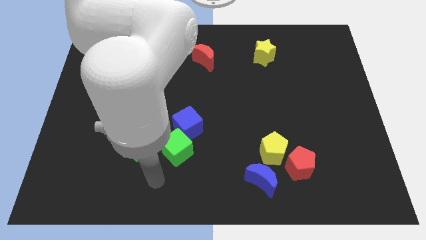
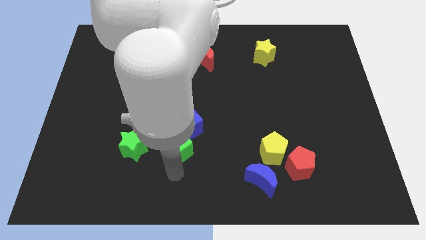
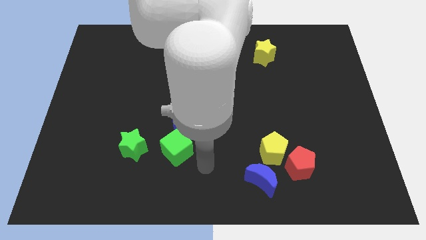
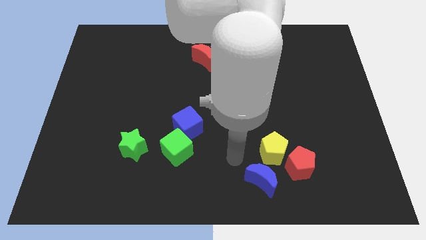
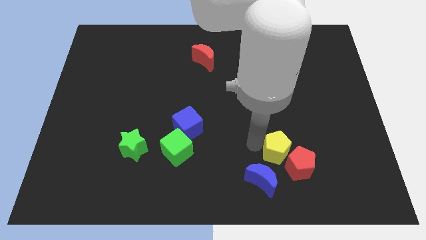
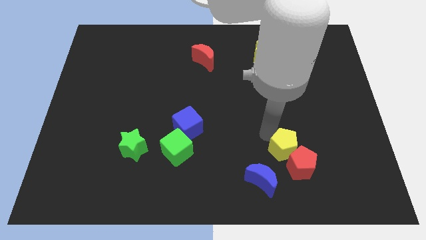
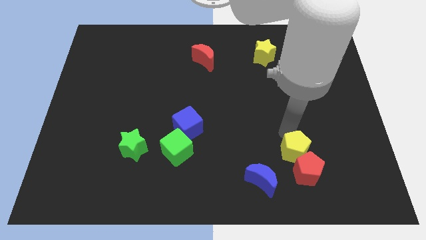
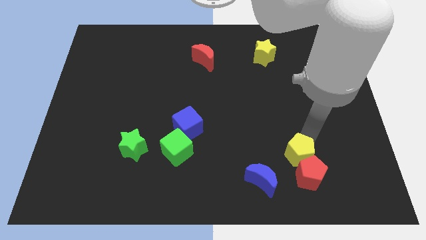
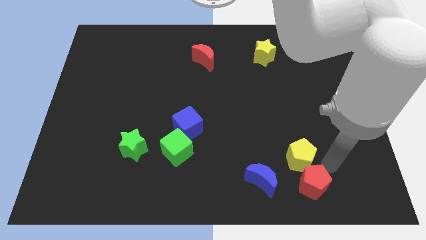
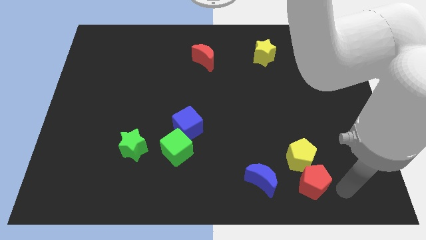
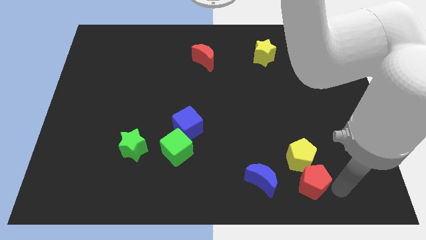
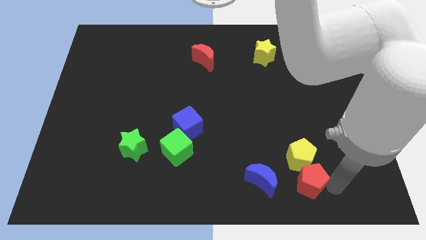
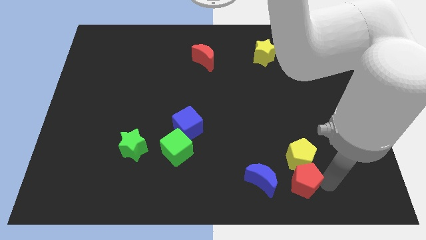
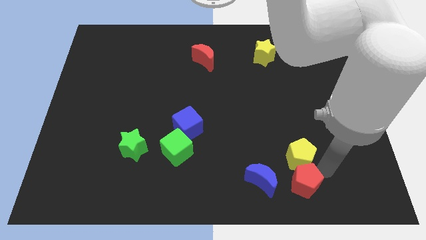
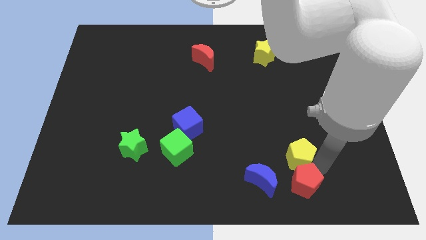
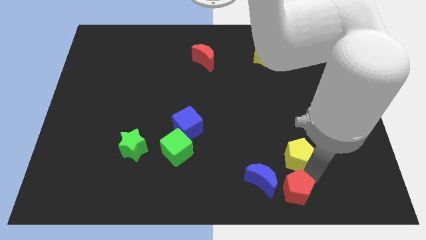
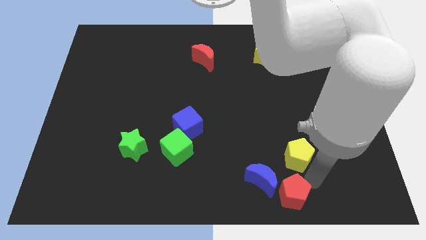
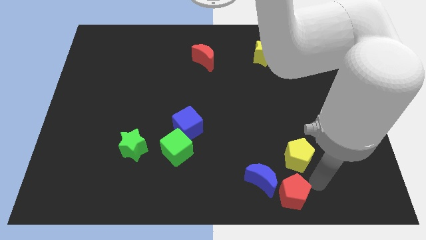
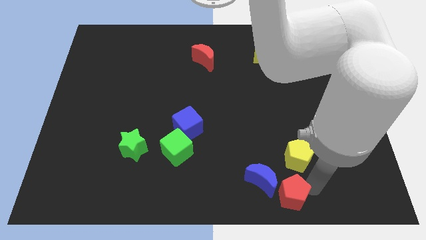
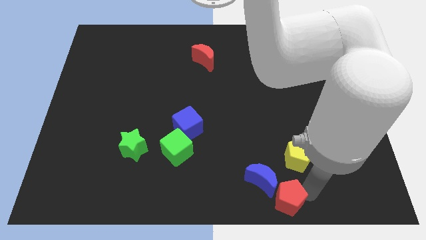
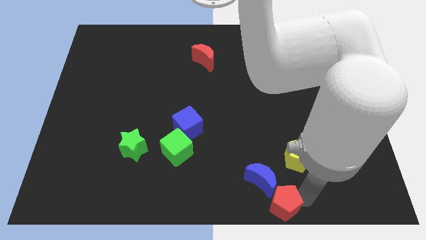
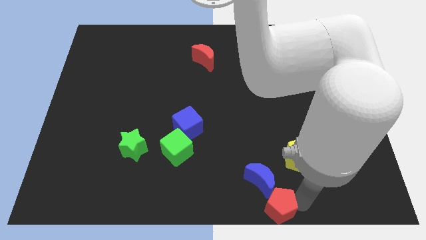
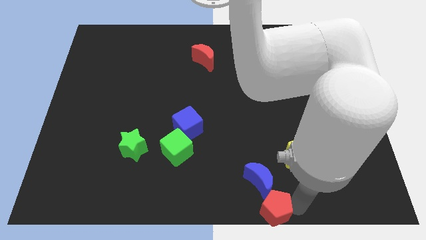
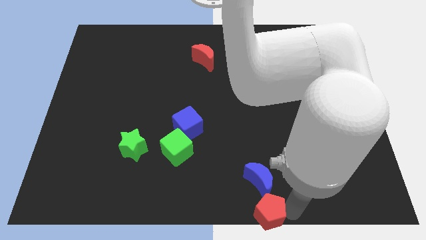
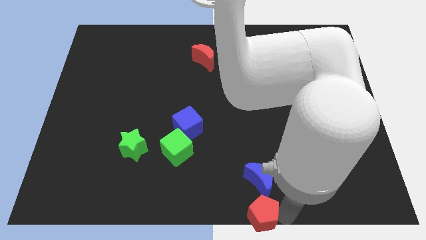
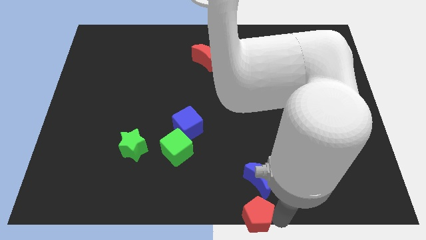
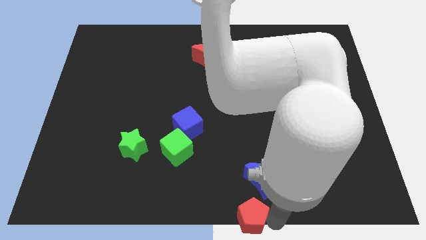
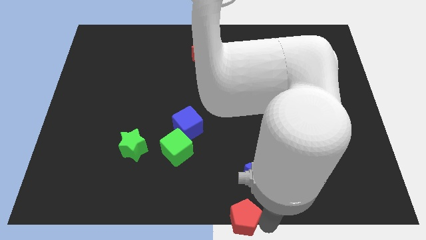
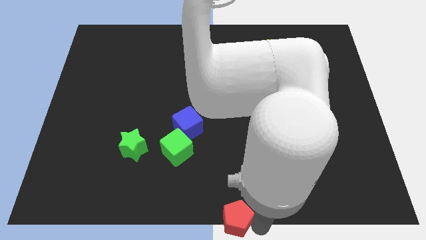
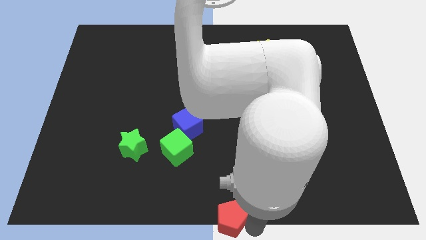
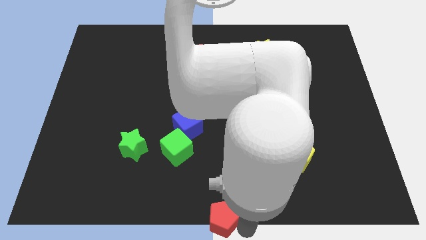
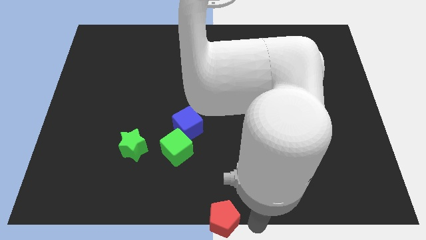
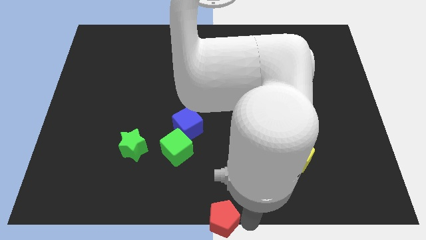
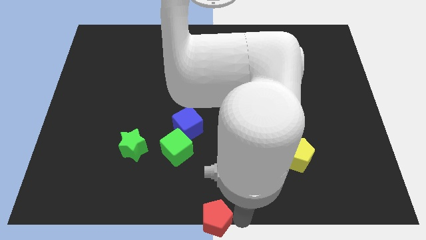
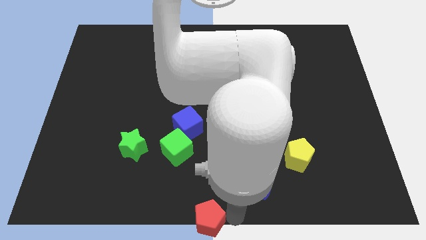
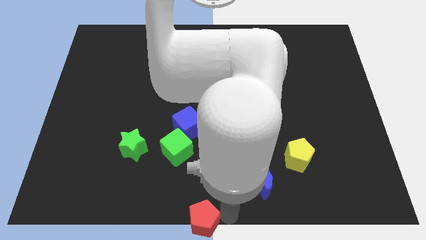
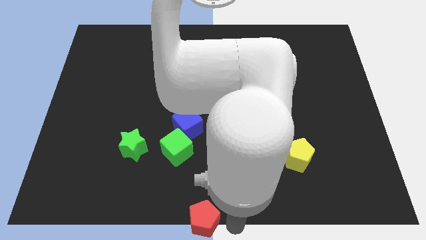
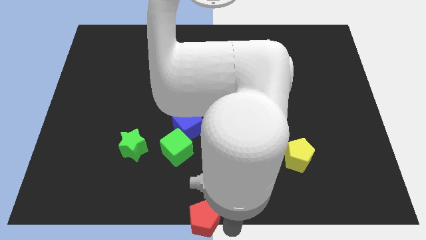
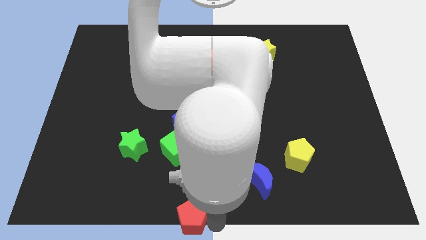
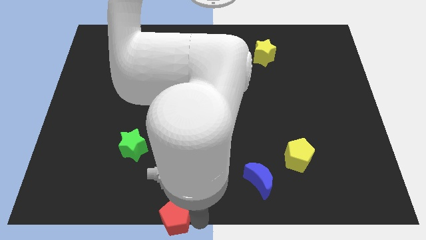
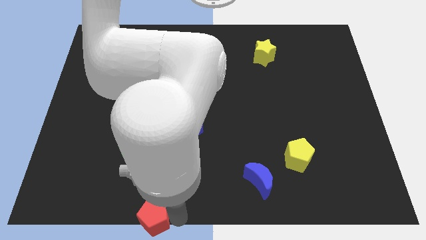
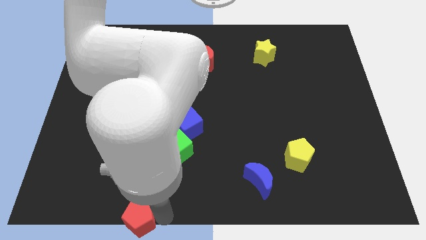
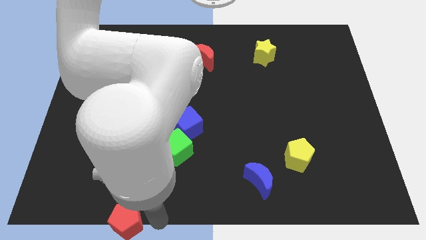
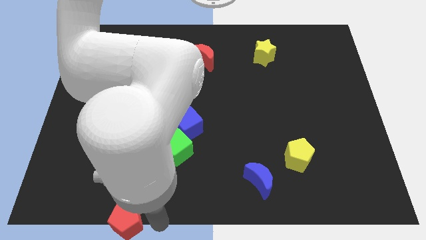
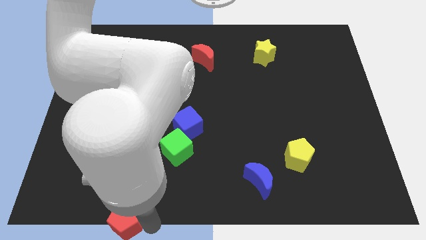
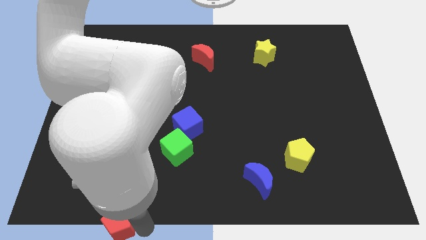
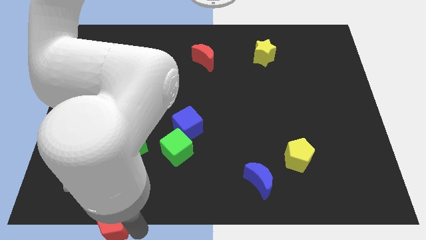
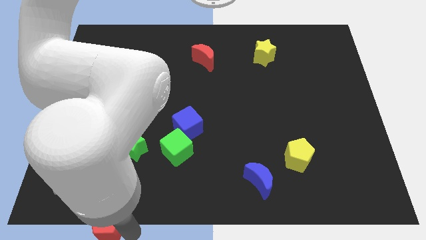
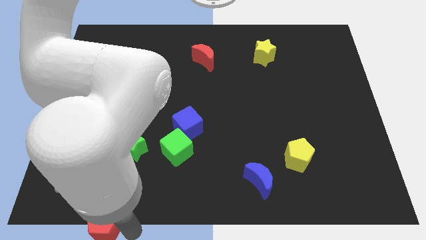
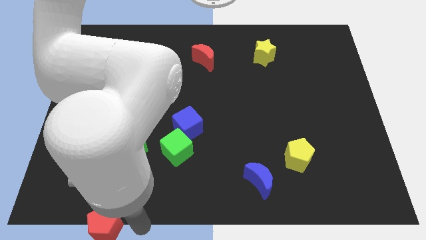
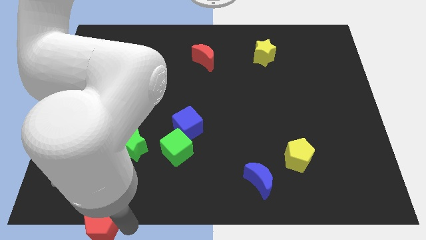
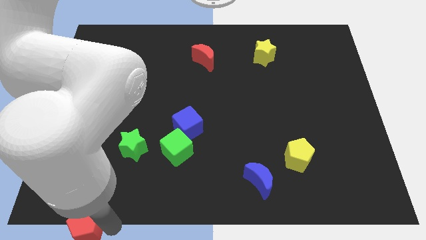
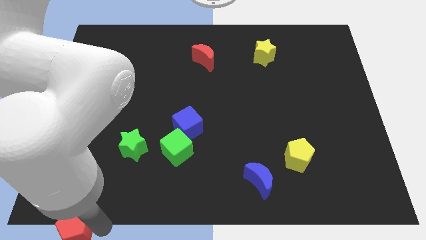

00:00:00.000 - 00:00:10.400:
push the red pentagon to the bottom left corner

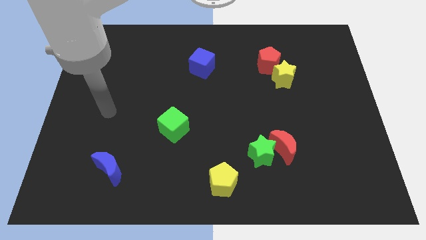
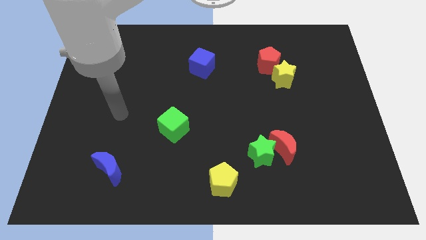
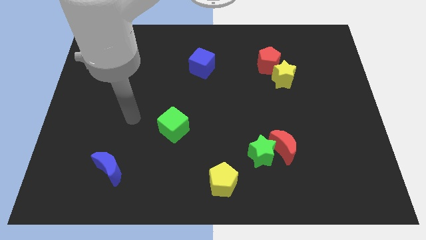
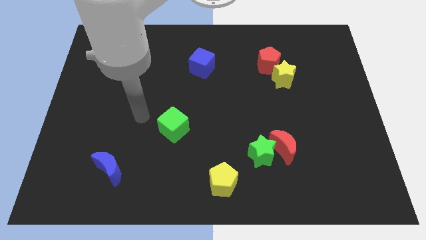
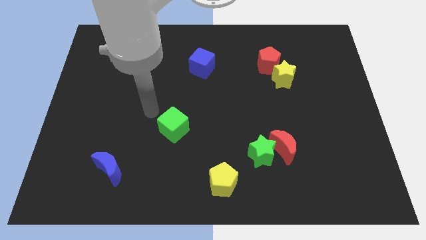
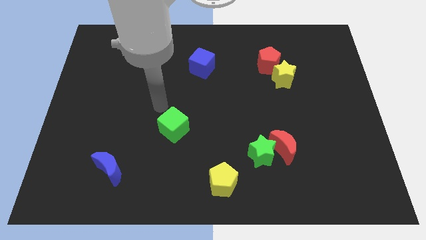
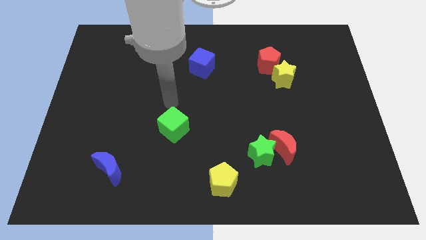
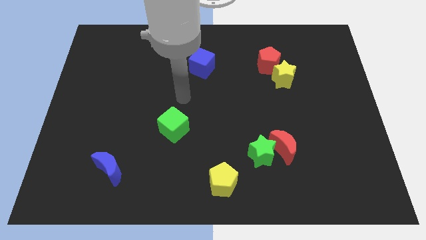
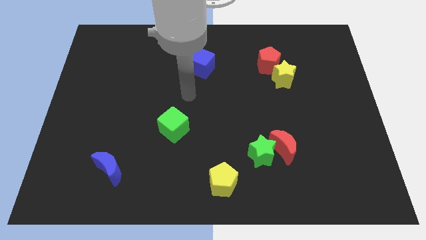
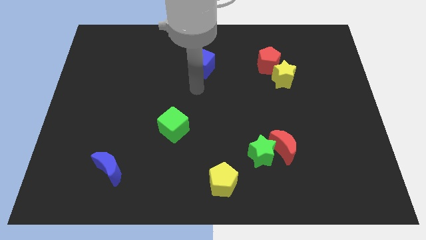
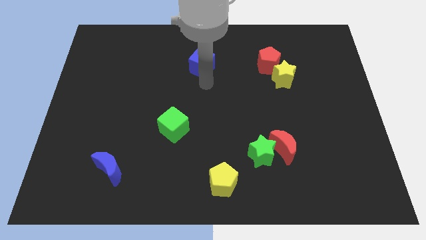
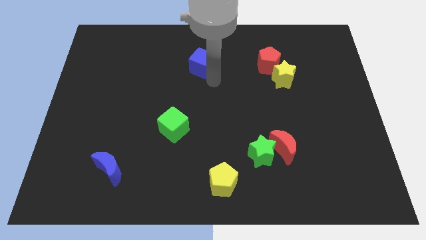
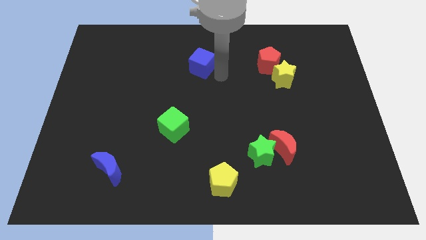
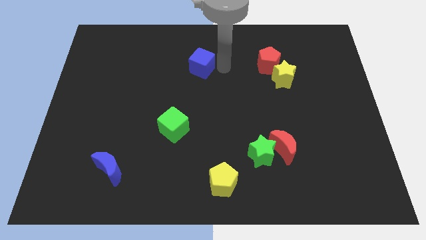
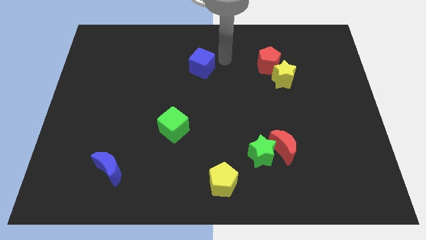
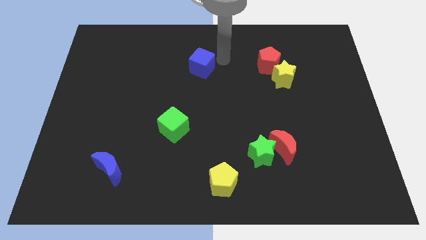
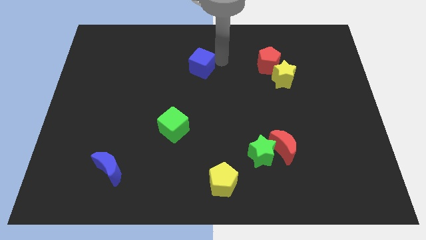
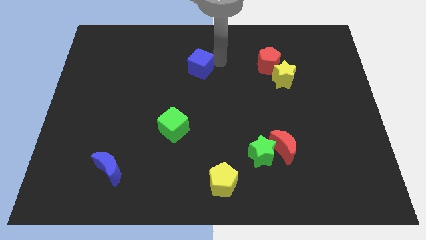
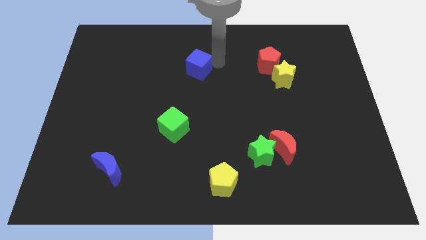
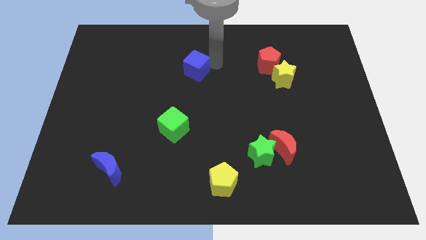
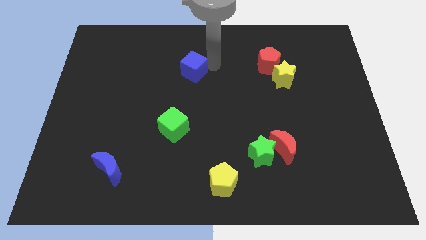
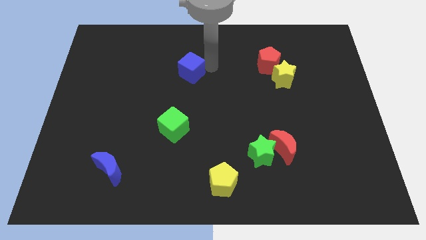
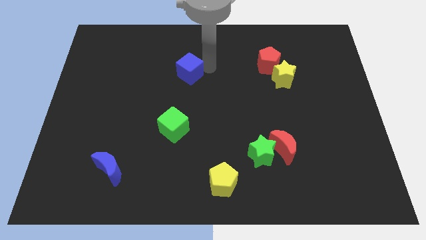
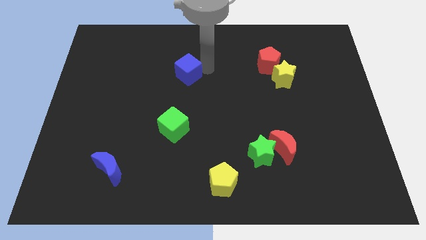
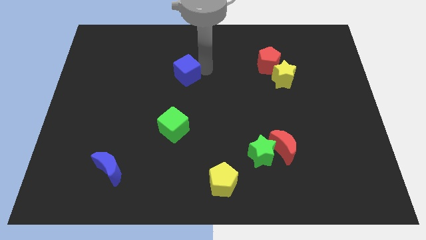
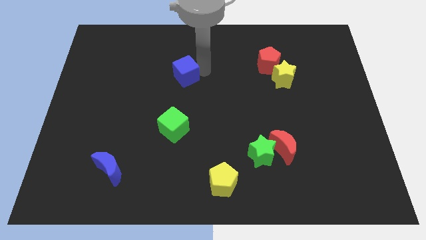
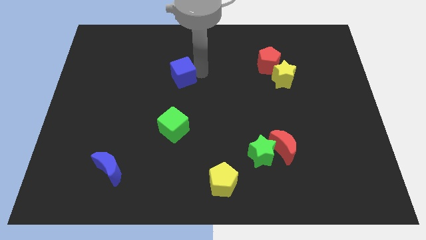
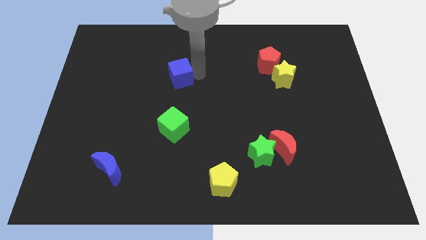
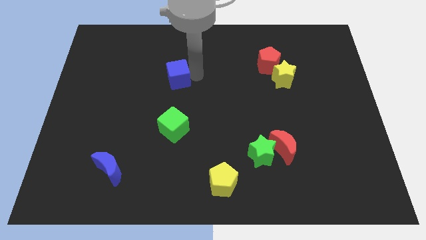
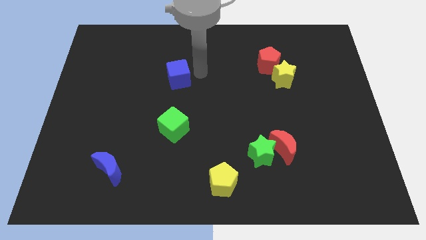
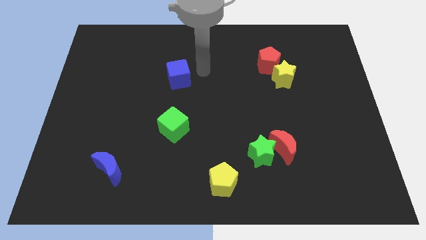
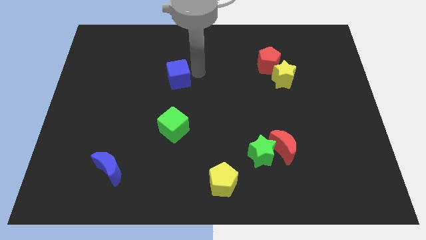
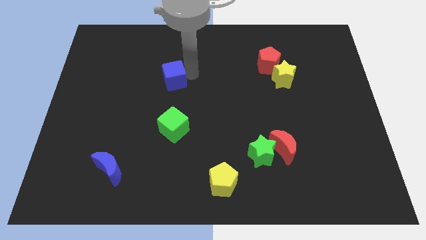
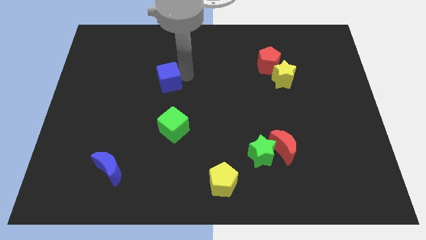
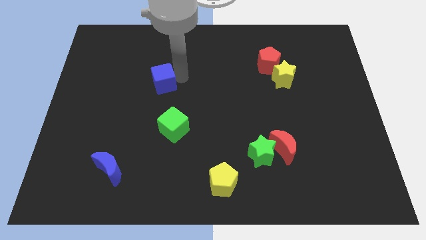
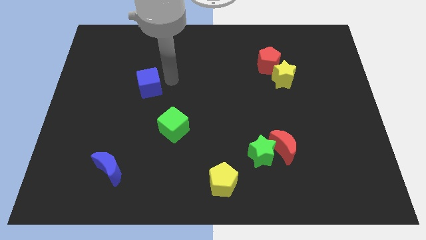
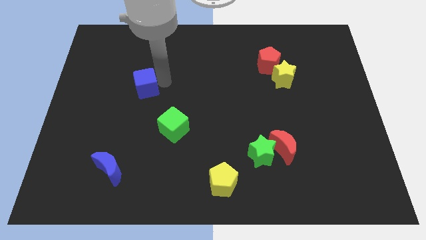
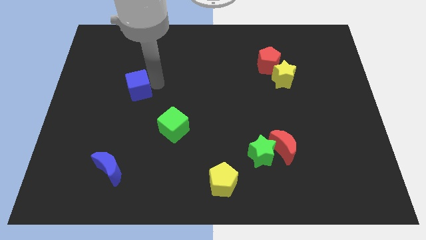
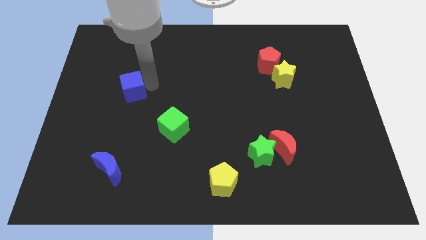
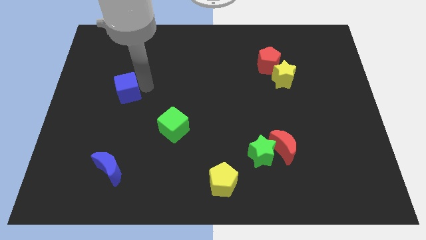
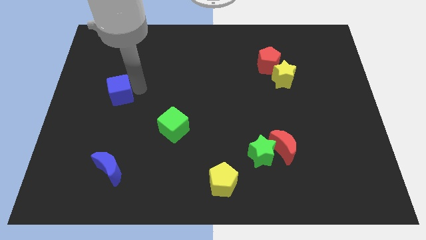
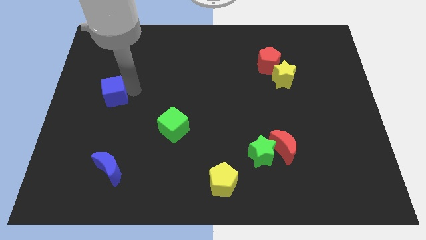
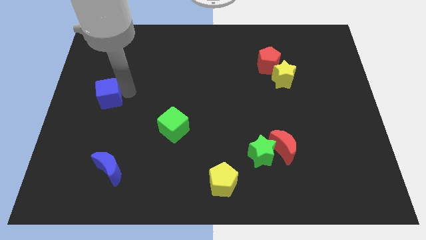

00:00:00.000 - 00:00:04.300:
slide the blue cube to the center left
